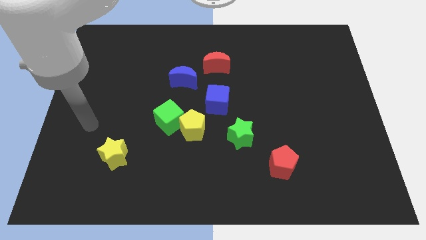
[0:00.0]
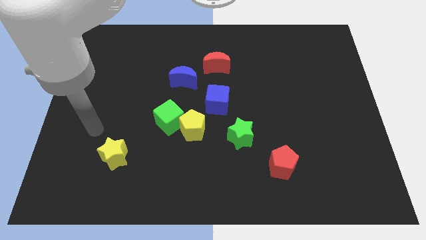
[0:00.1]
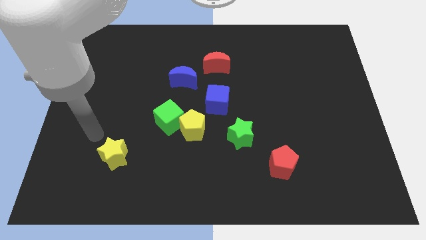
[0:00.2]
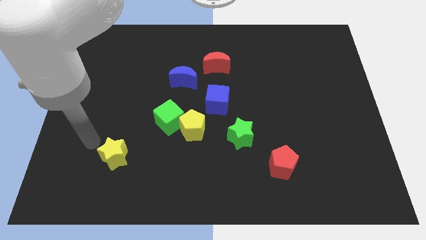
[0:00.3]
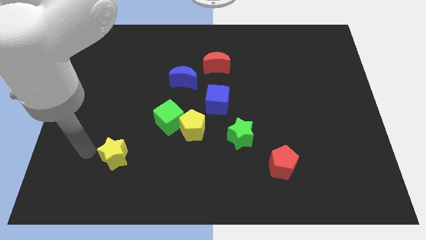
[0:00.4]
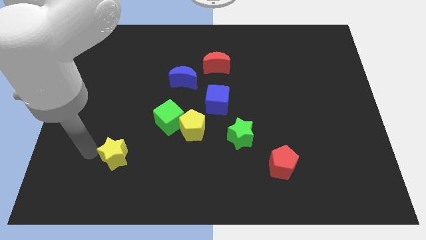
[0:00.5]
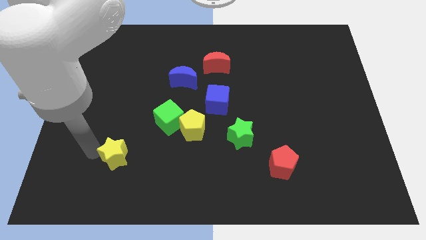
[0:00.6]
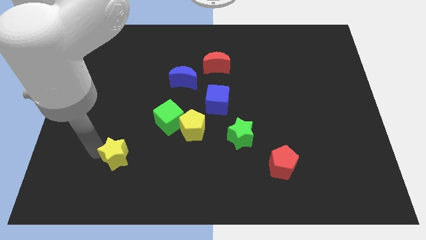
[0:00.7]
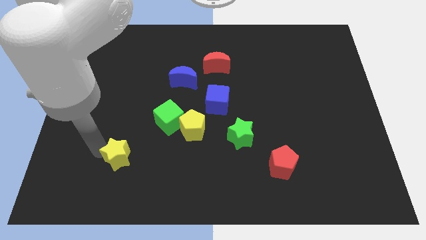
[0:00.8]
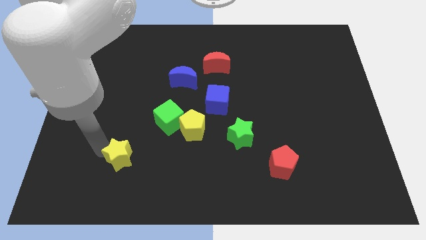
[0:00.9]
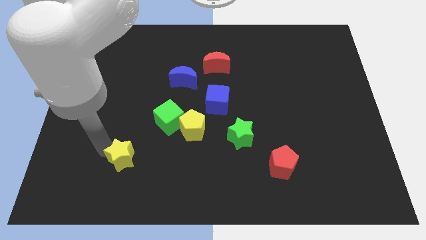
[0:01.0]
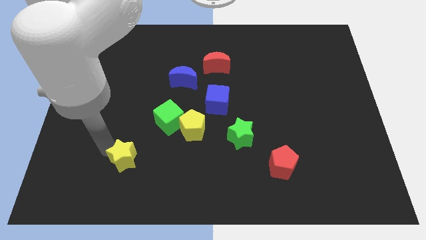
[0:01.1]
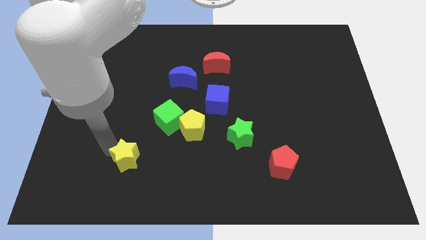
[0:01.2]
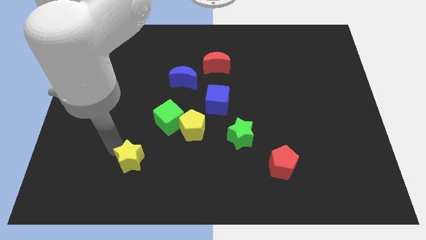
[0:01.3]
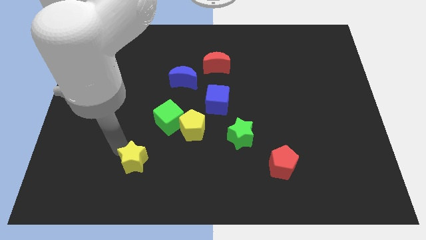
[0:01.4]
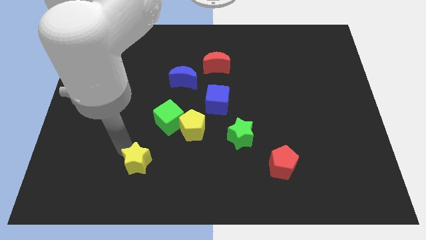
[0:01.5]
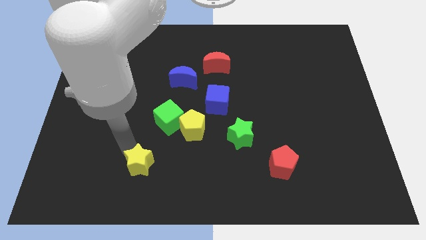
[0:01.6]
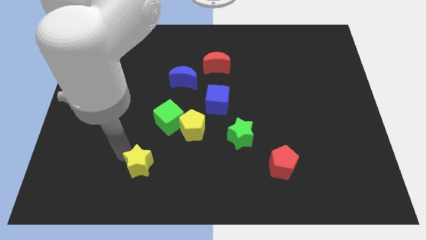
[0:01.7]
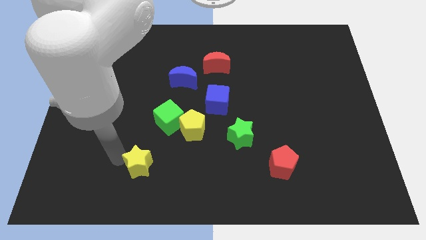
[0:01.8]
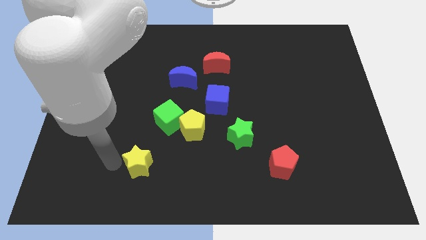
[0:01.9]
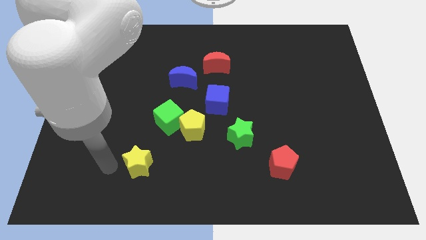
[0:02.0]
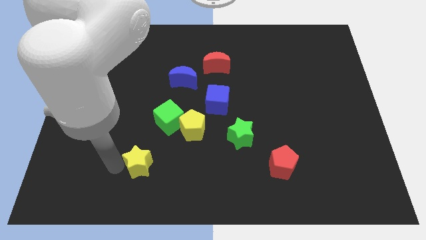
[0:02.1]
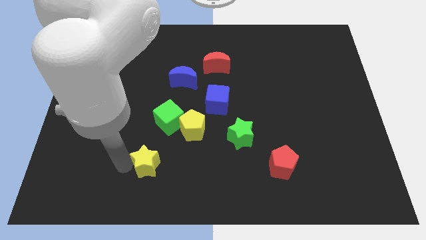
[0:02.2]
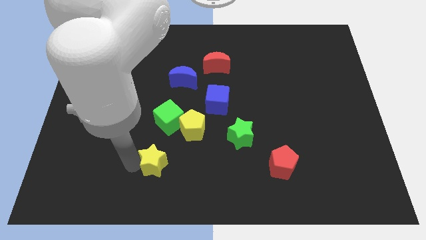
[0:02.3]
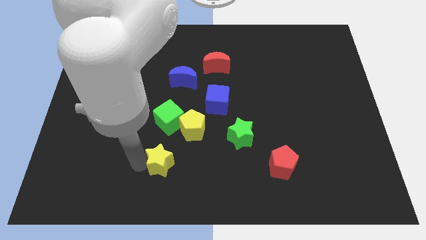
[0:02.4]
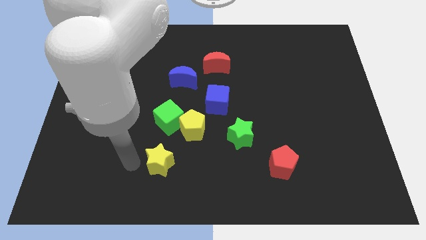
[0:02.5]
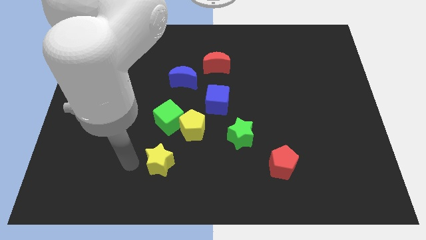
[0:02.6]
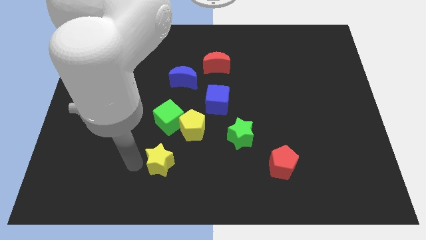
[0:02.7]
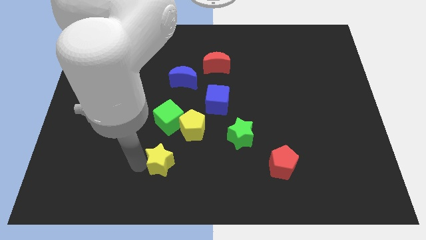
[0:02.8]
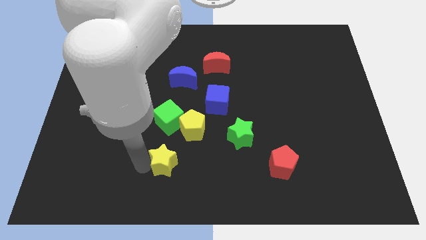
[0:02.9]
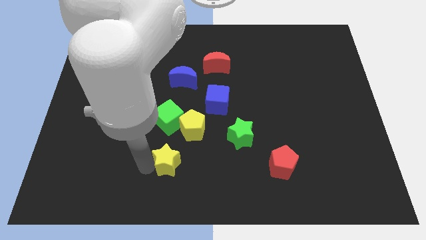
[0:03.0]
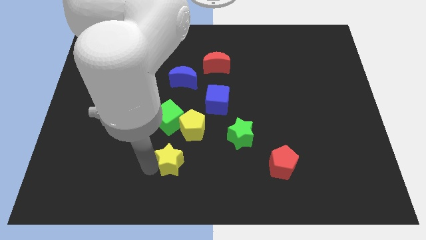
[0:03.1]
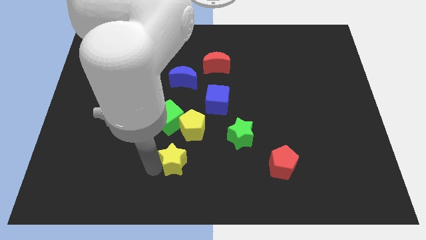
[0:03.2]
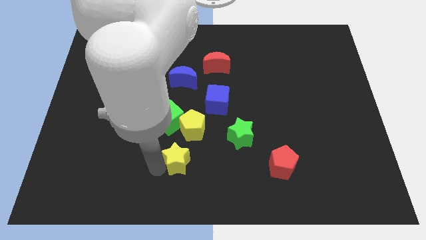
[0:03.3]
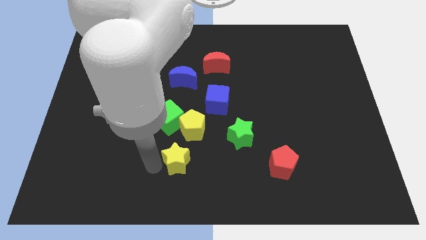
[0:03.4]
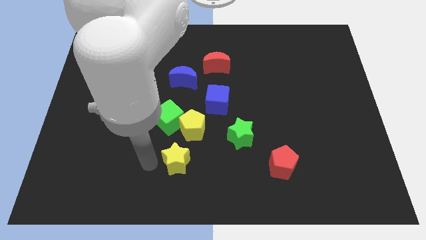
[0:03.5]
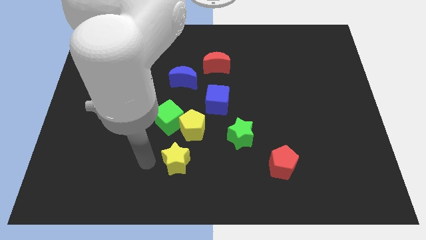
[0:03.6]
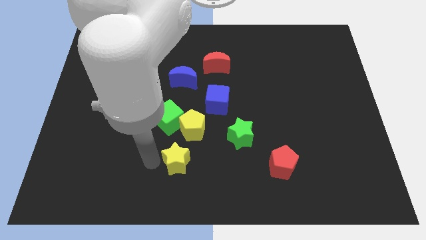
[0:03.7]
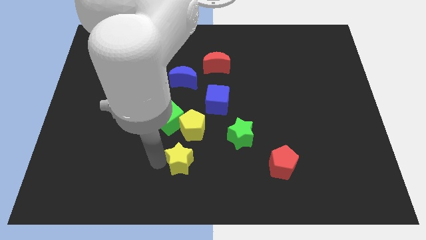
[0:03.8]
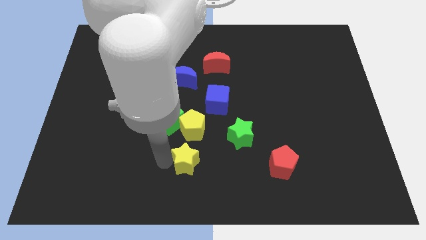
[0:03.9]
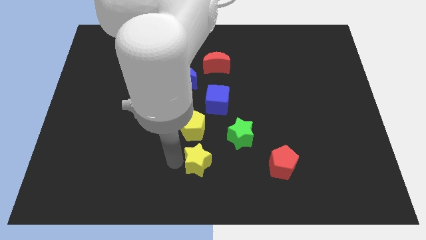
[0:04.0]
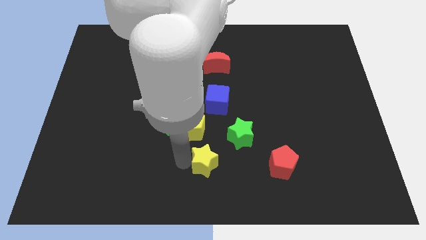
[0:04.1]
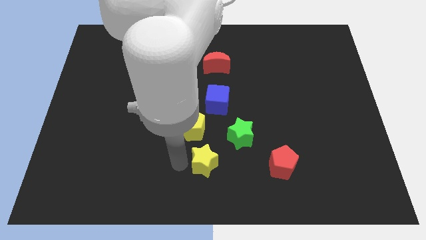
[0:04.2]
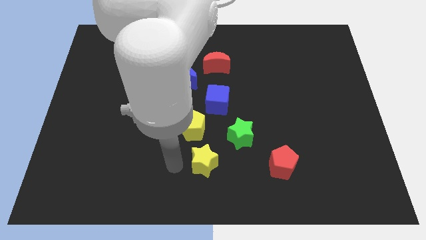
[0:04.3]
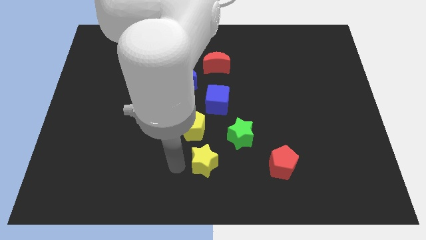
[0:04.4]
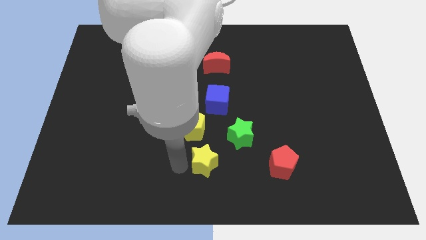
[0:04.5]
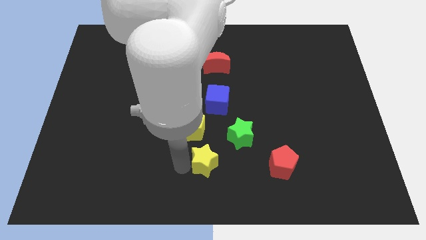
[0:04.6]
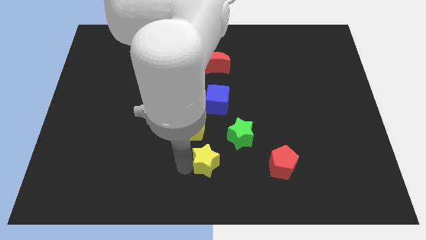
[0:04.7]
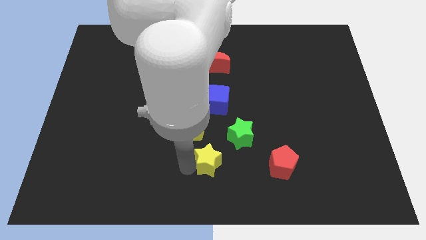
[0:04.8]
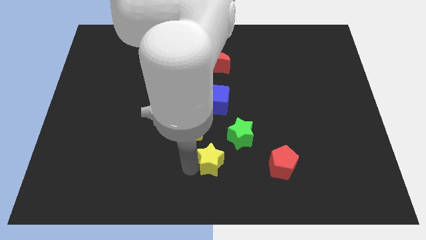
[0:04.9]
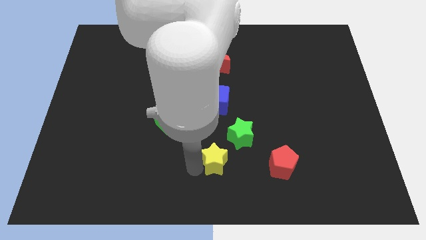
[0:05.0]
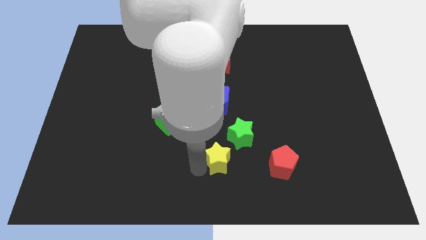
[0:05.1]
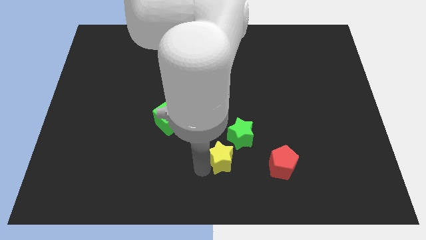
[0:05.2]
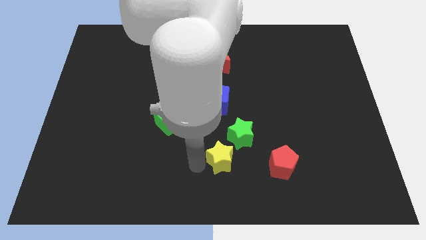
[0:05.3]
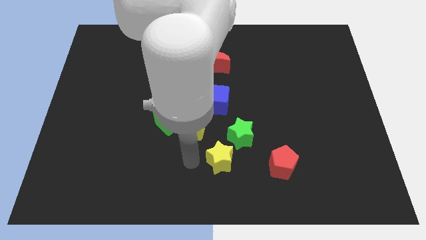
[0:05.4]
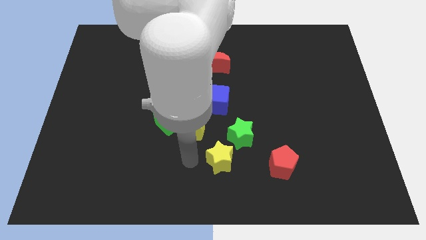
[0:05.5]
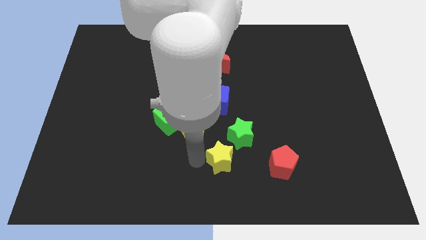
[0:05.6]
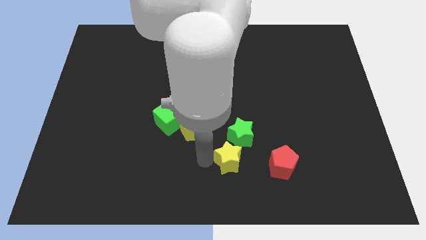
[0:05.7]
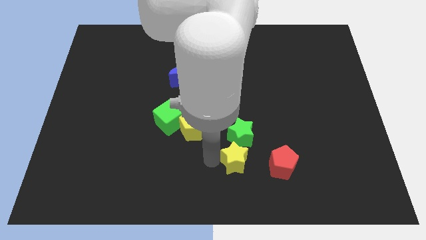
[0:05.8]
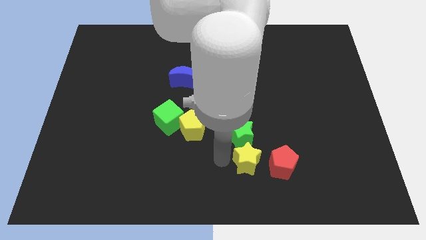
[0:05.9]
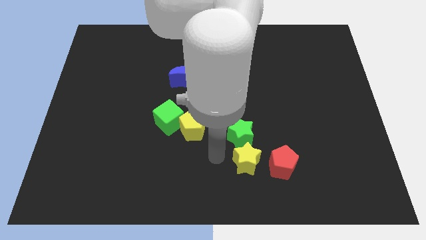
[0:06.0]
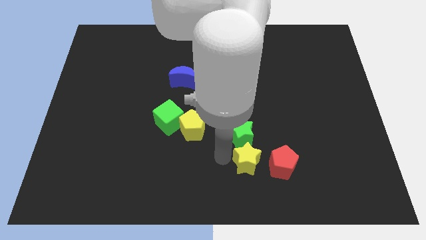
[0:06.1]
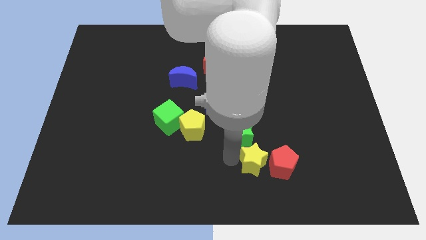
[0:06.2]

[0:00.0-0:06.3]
push the yellow star next to the red pentagon

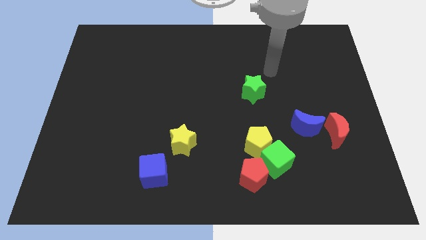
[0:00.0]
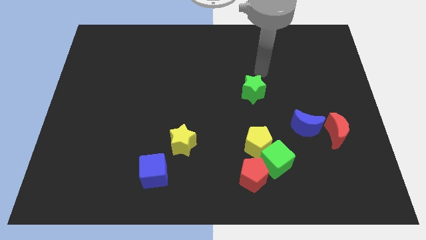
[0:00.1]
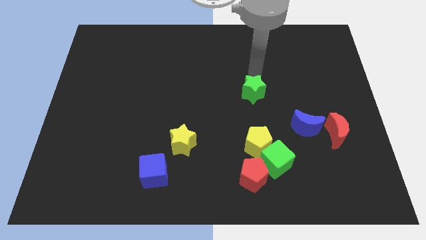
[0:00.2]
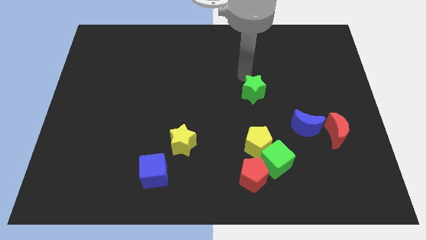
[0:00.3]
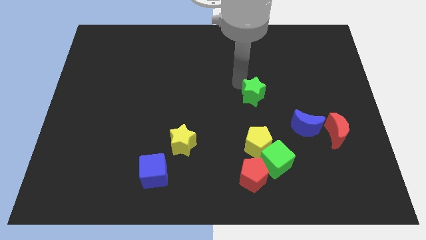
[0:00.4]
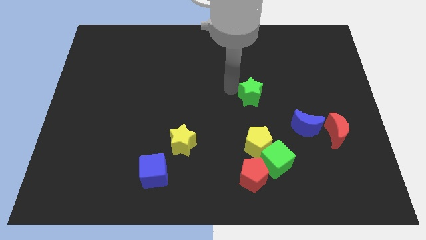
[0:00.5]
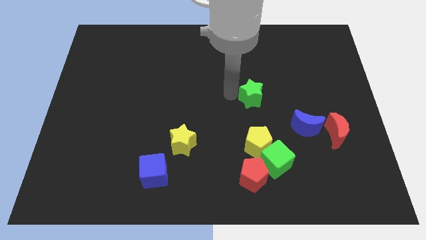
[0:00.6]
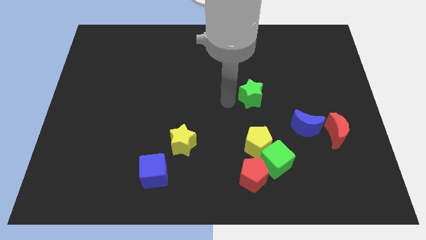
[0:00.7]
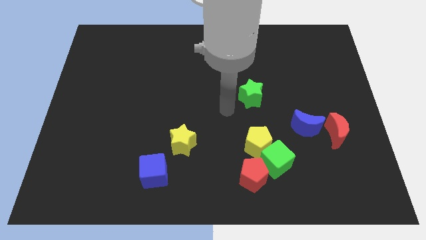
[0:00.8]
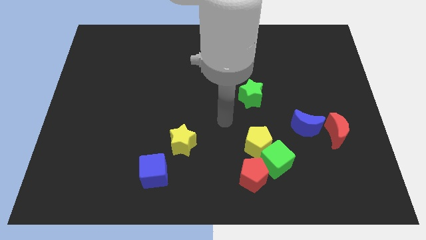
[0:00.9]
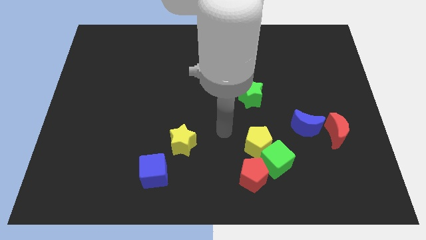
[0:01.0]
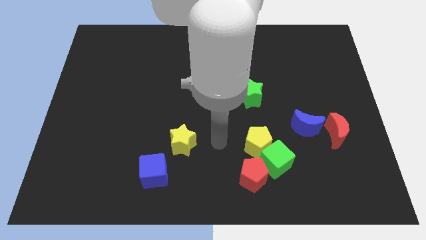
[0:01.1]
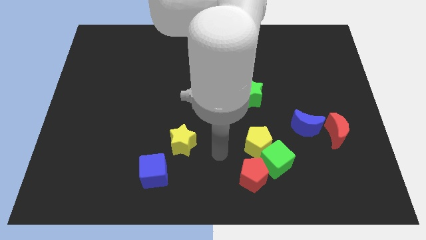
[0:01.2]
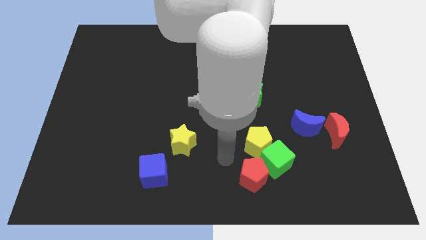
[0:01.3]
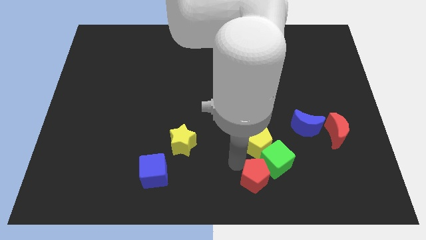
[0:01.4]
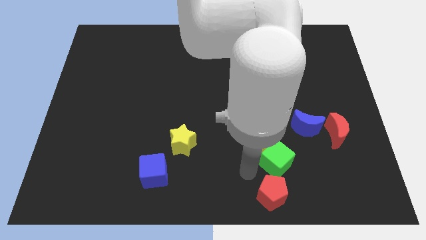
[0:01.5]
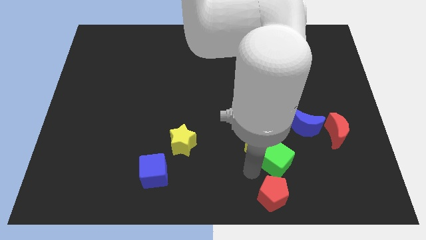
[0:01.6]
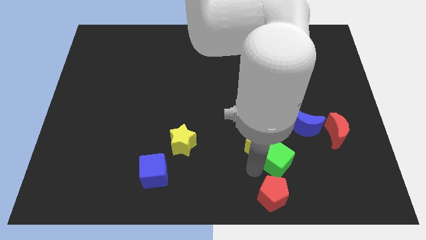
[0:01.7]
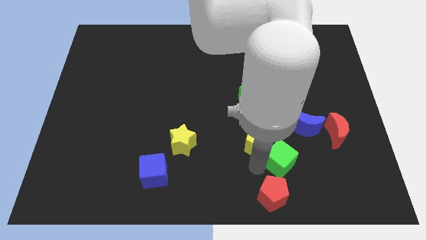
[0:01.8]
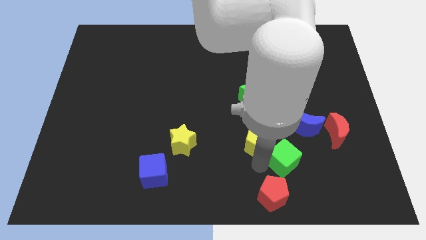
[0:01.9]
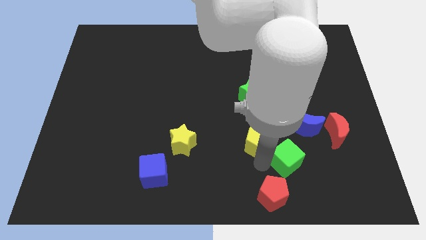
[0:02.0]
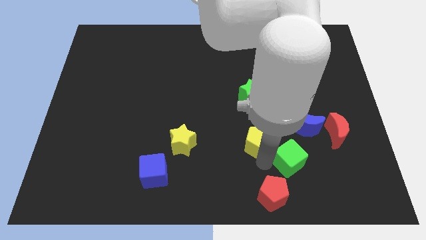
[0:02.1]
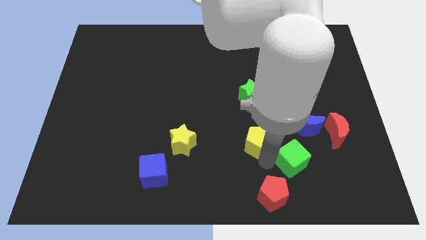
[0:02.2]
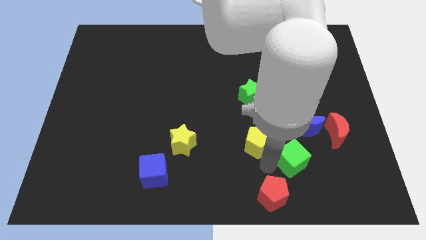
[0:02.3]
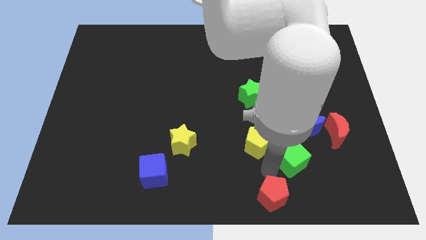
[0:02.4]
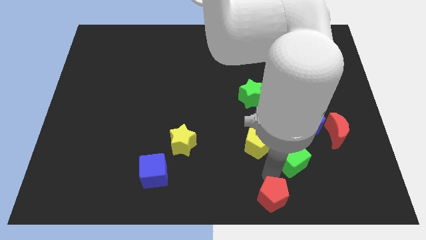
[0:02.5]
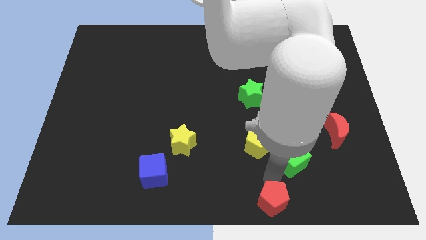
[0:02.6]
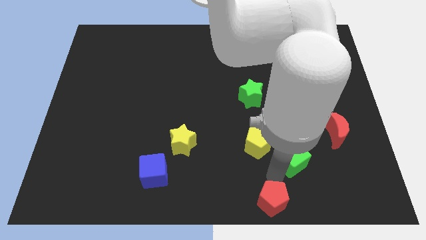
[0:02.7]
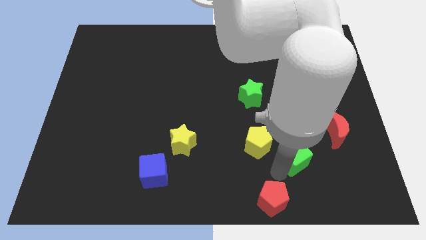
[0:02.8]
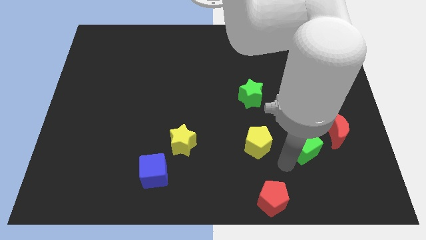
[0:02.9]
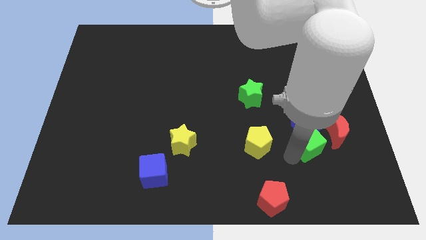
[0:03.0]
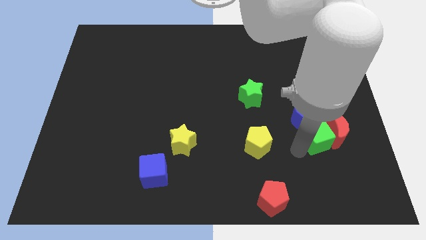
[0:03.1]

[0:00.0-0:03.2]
put the green cube towards the red moon
